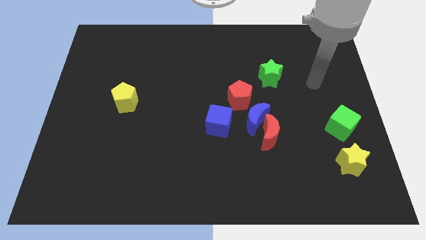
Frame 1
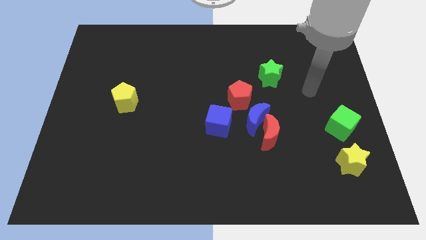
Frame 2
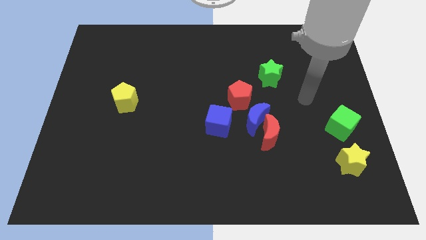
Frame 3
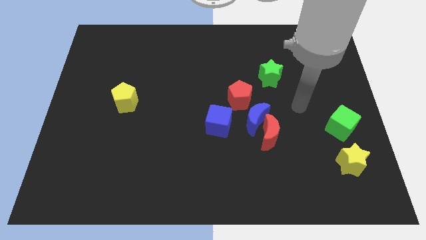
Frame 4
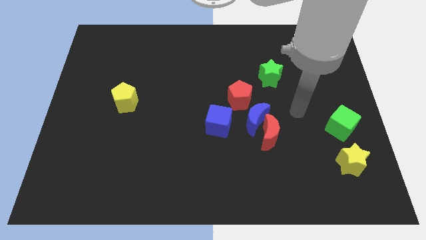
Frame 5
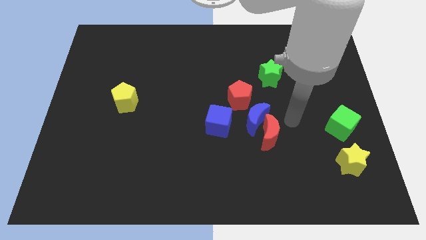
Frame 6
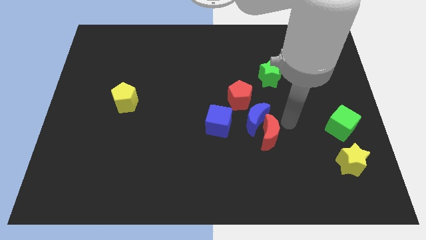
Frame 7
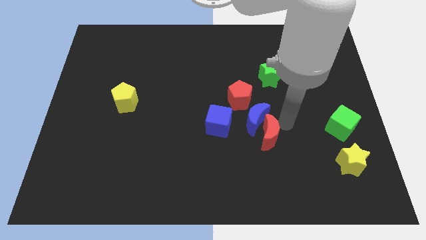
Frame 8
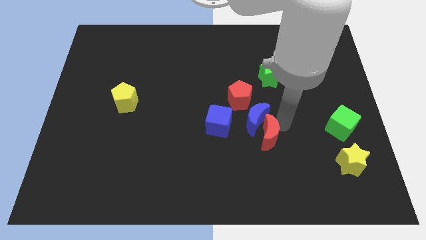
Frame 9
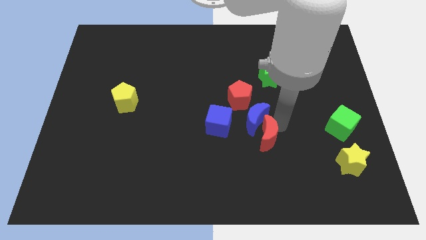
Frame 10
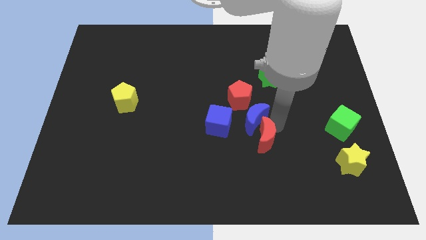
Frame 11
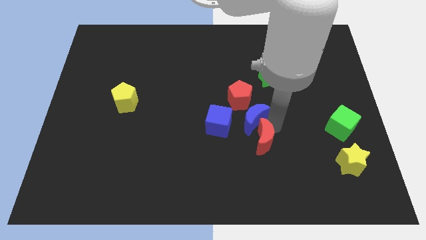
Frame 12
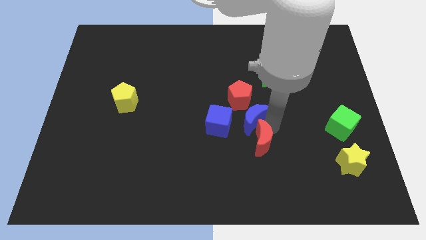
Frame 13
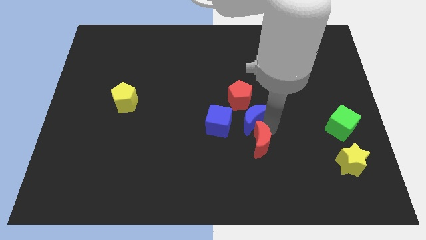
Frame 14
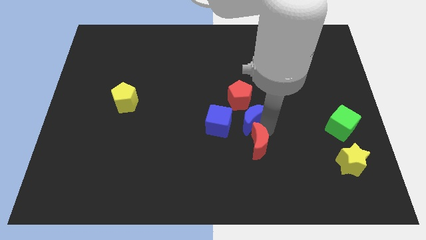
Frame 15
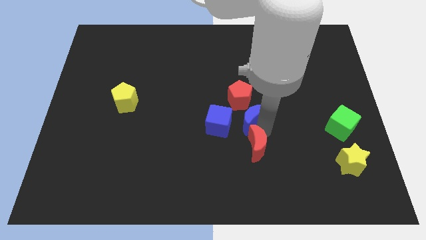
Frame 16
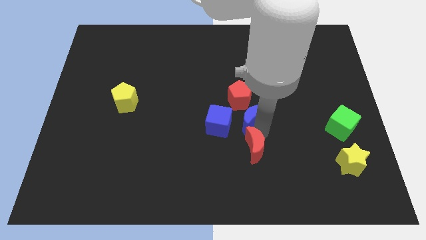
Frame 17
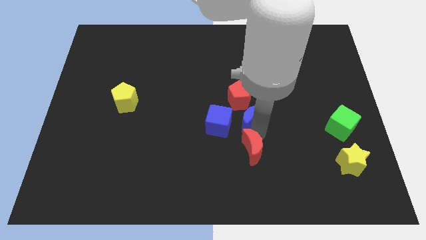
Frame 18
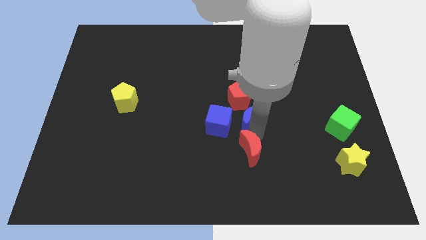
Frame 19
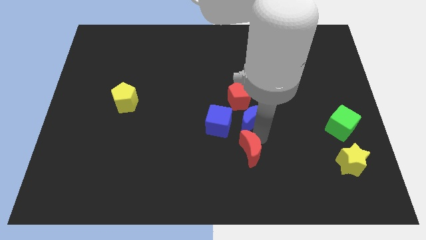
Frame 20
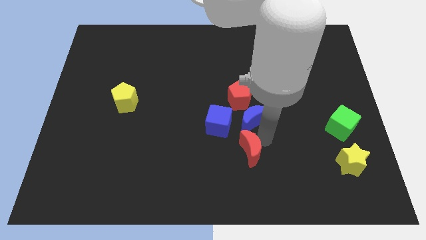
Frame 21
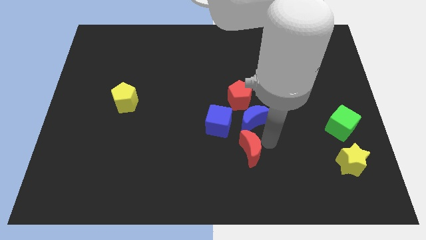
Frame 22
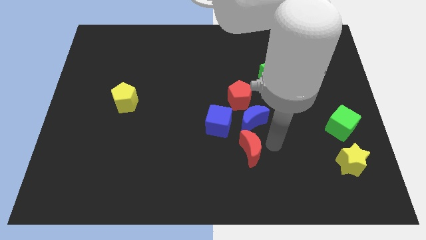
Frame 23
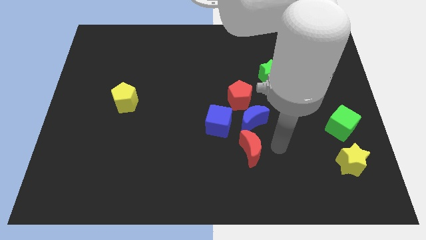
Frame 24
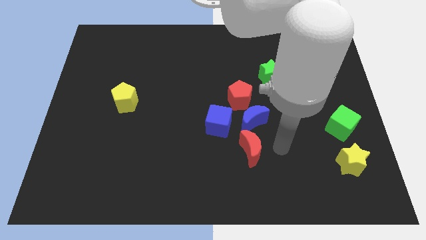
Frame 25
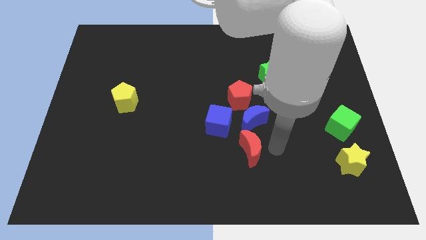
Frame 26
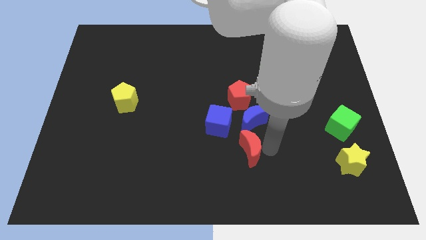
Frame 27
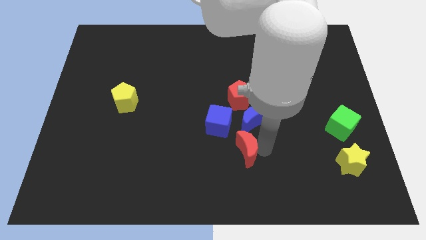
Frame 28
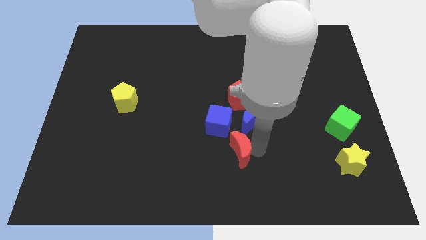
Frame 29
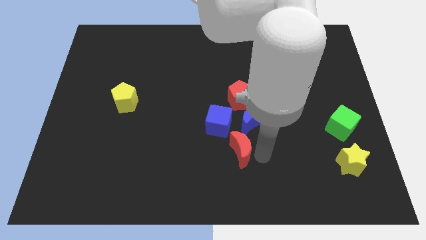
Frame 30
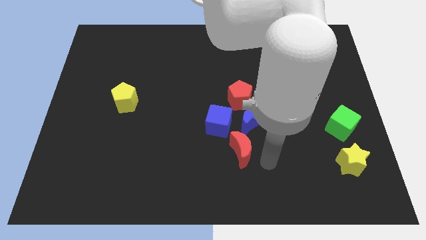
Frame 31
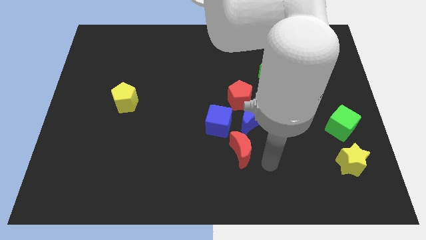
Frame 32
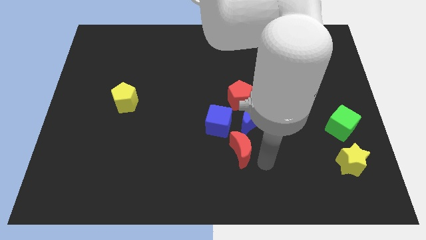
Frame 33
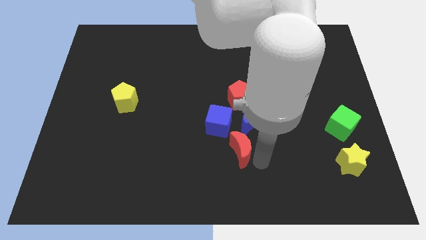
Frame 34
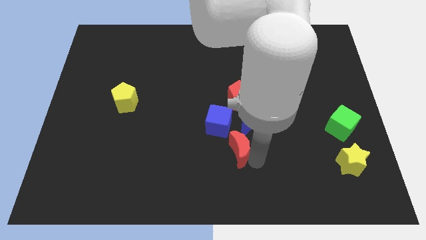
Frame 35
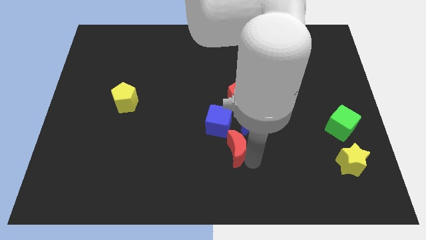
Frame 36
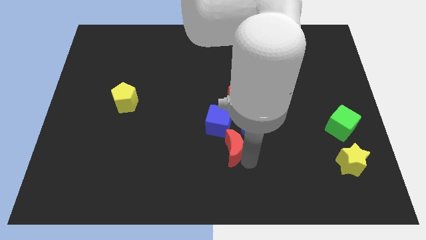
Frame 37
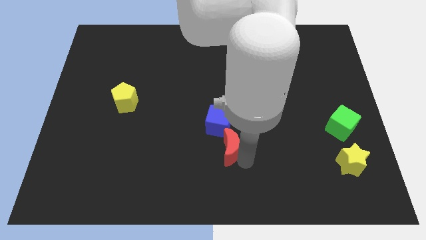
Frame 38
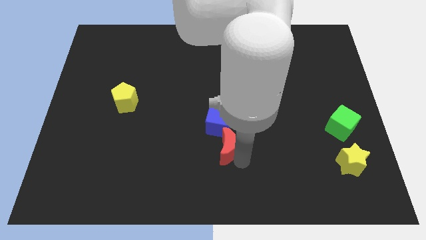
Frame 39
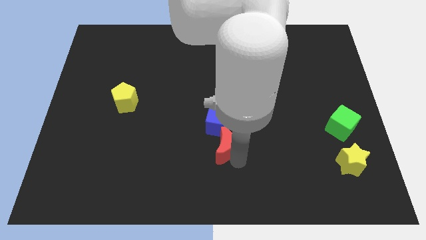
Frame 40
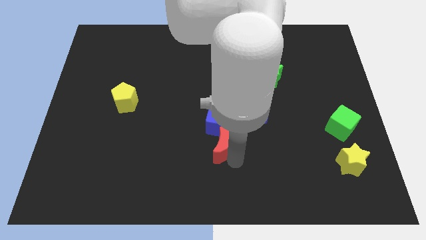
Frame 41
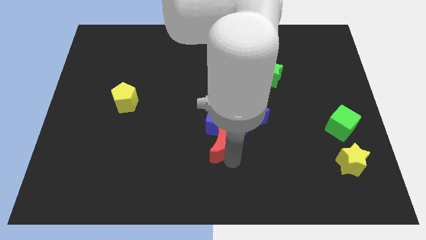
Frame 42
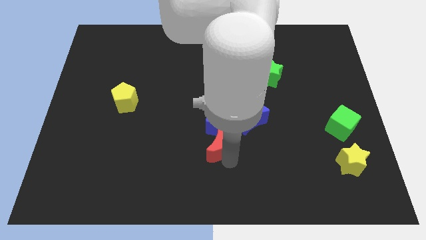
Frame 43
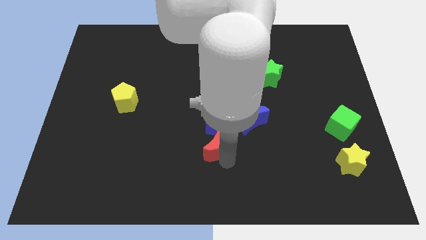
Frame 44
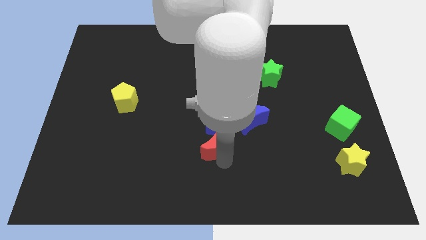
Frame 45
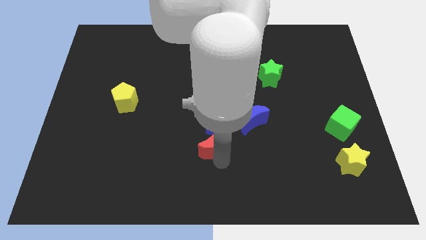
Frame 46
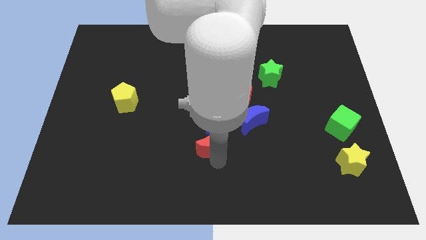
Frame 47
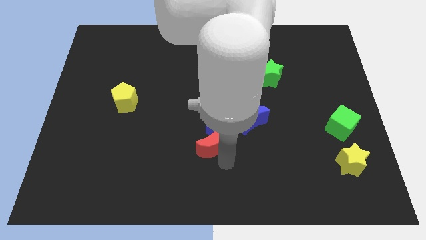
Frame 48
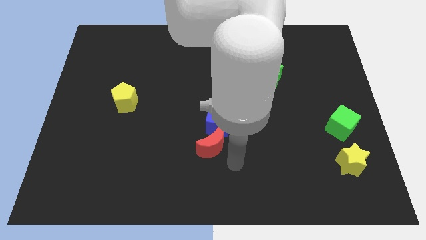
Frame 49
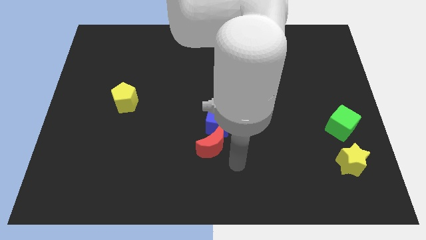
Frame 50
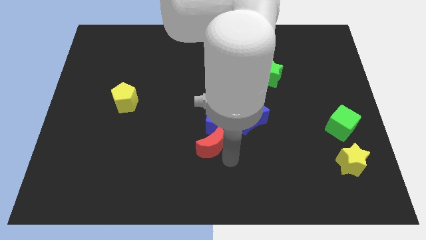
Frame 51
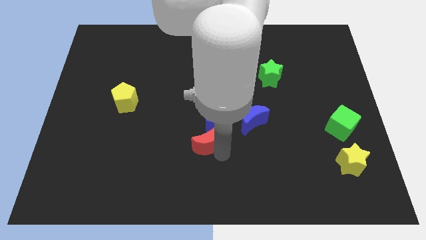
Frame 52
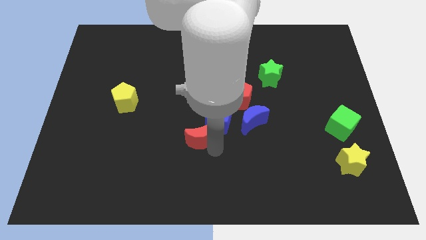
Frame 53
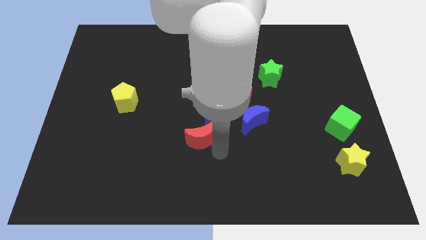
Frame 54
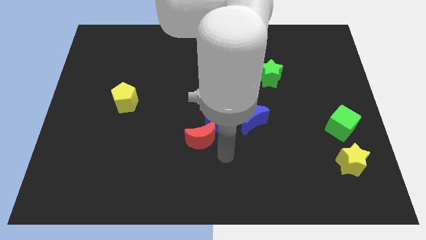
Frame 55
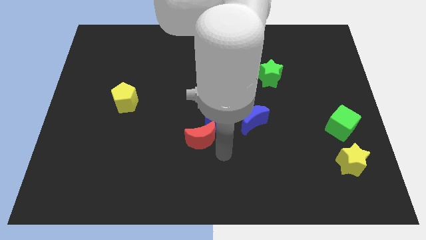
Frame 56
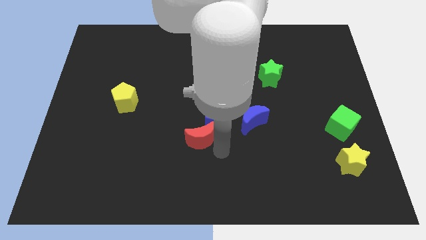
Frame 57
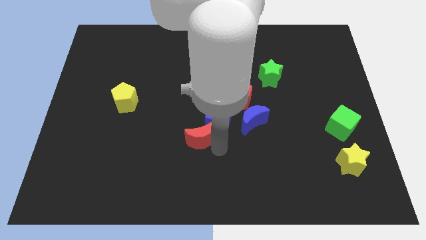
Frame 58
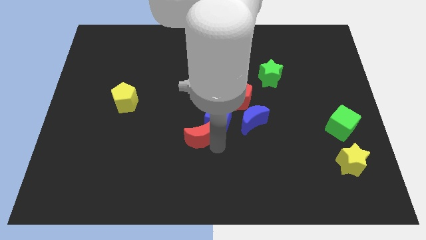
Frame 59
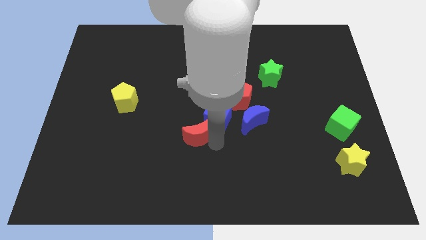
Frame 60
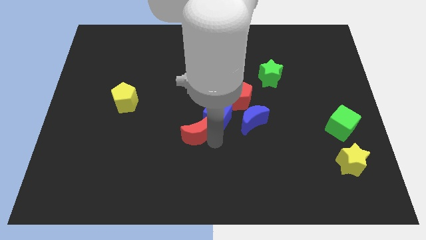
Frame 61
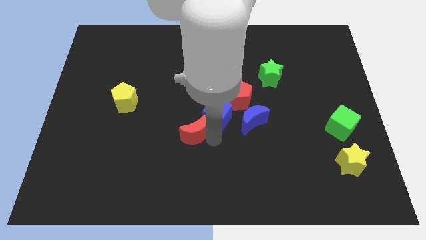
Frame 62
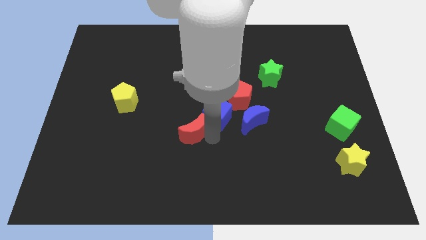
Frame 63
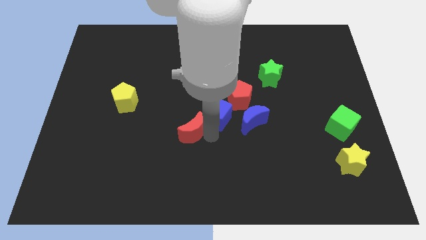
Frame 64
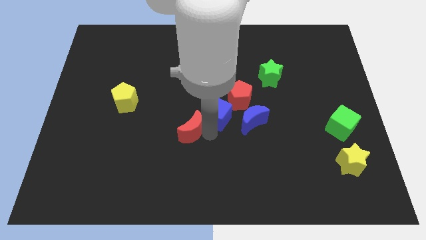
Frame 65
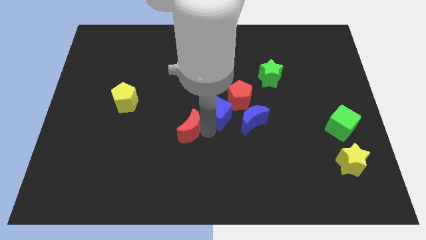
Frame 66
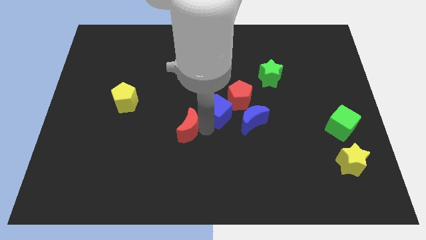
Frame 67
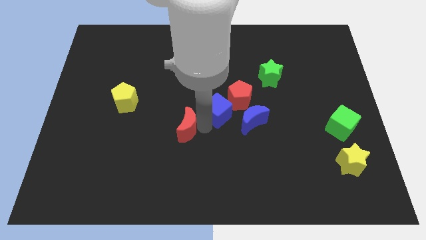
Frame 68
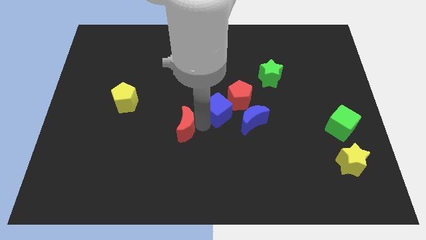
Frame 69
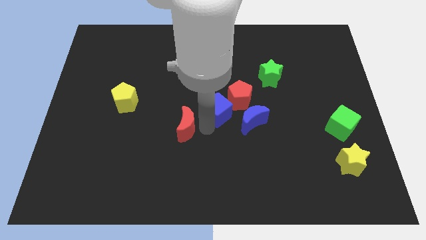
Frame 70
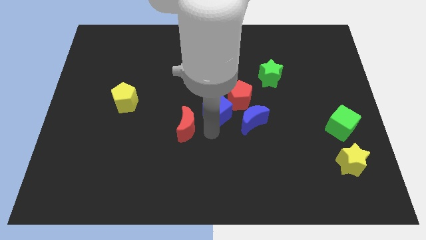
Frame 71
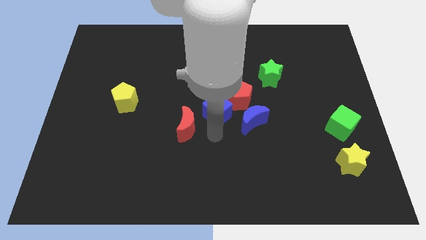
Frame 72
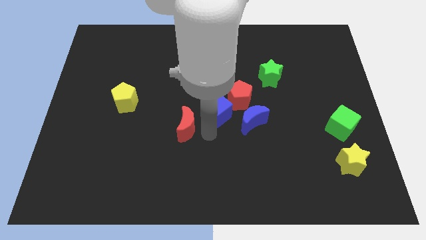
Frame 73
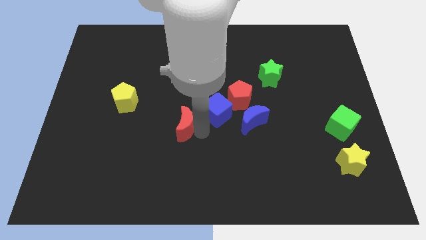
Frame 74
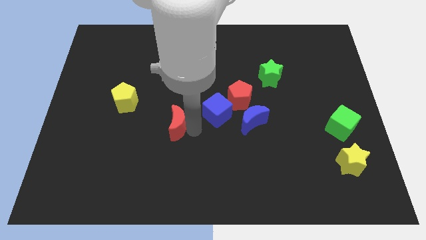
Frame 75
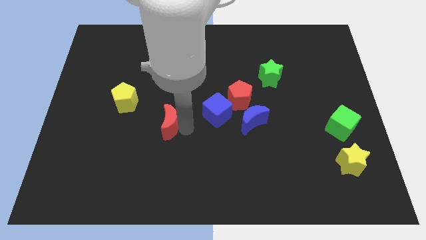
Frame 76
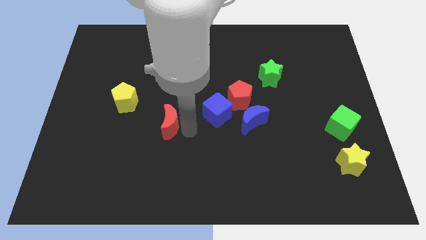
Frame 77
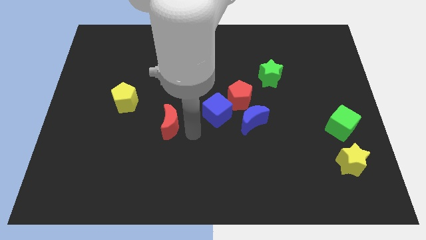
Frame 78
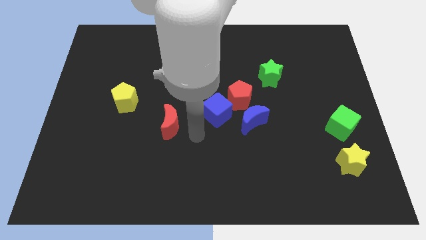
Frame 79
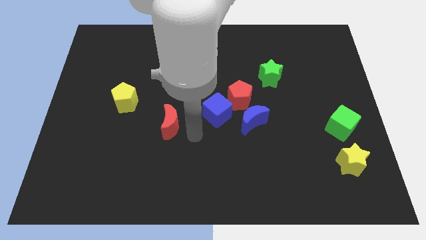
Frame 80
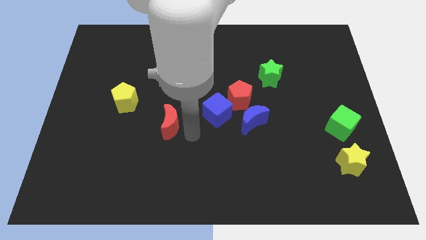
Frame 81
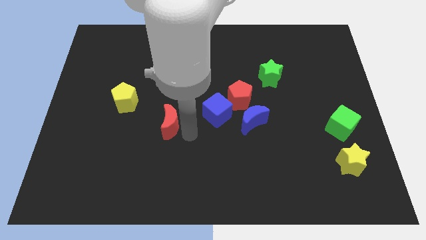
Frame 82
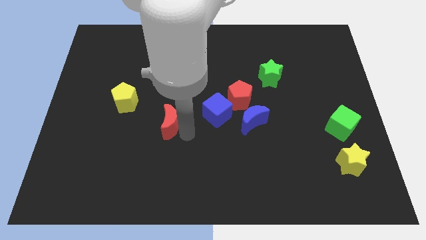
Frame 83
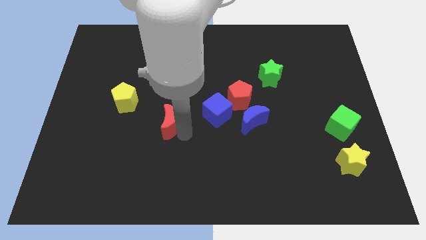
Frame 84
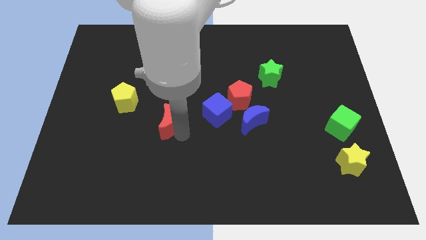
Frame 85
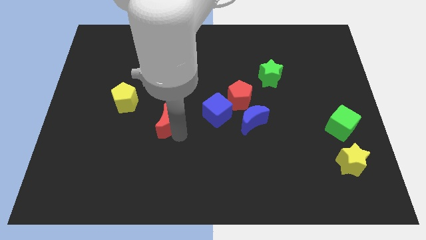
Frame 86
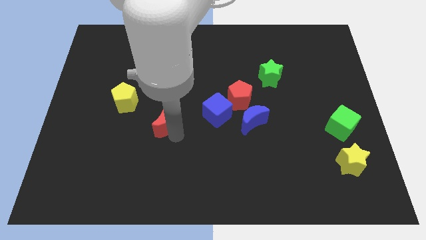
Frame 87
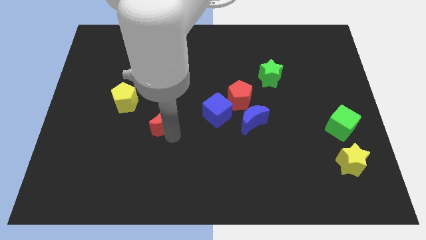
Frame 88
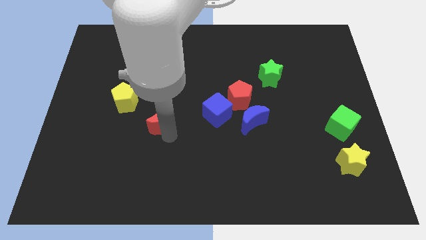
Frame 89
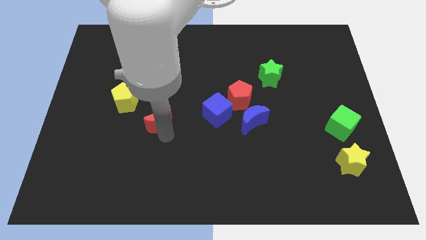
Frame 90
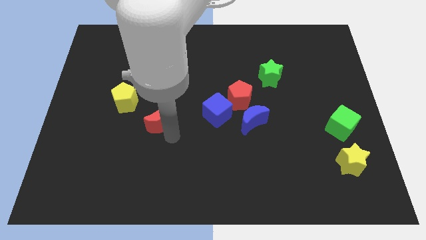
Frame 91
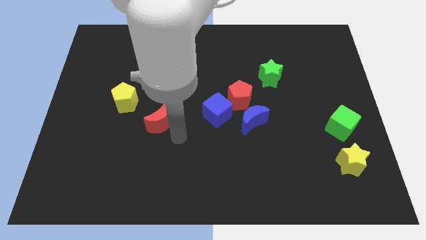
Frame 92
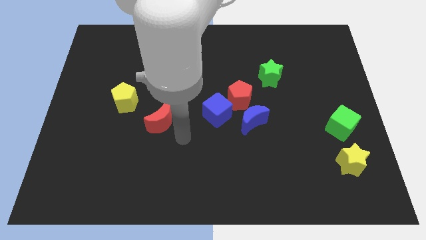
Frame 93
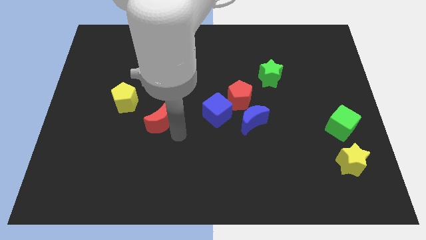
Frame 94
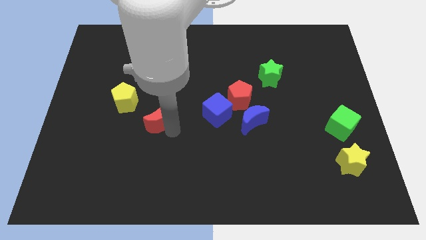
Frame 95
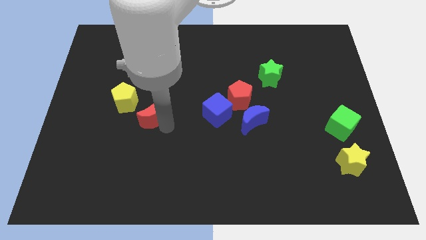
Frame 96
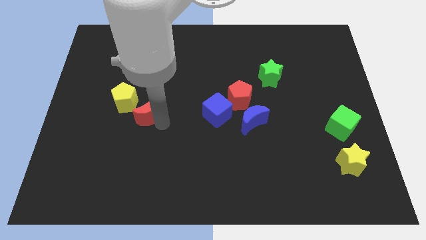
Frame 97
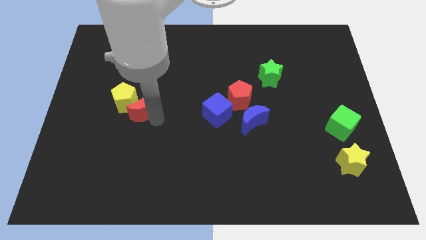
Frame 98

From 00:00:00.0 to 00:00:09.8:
push the red moon to the yellow pentagon
